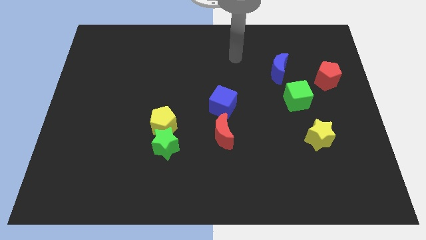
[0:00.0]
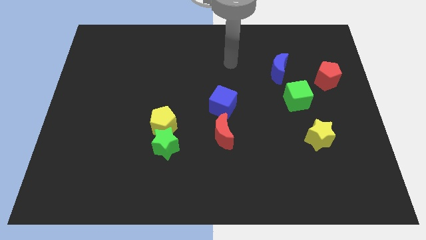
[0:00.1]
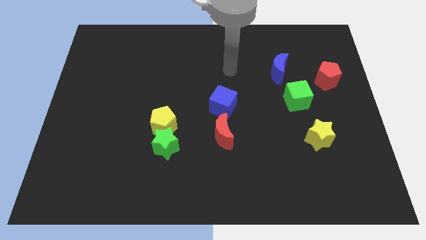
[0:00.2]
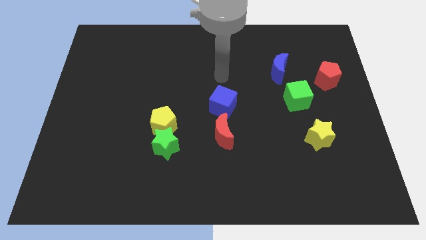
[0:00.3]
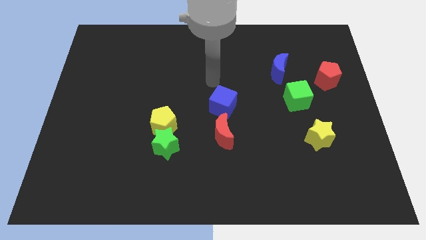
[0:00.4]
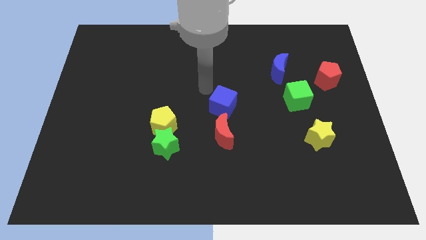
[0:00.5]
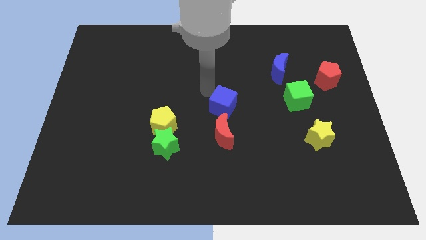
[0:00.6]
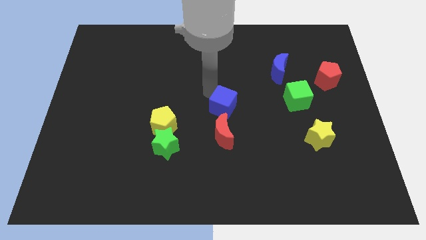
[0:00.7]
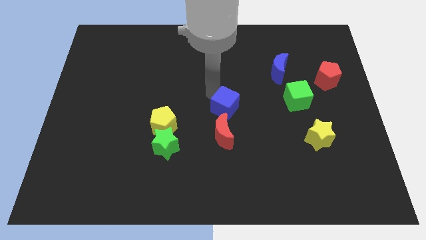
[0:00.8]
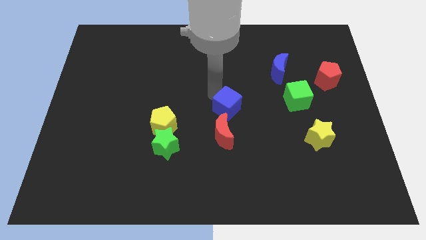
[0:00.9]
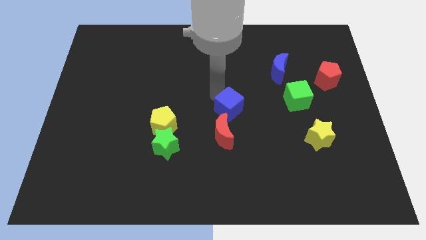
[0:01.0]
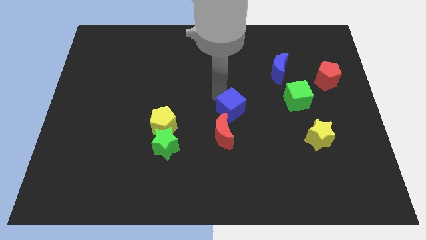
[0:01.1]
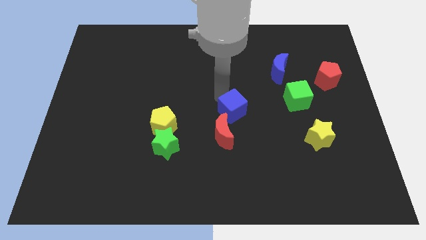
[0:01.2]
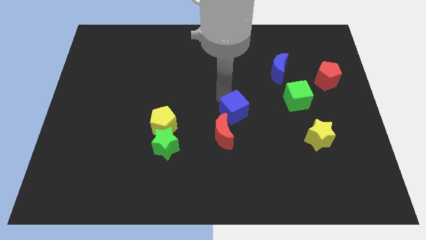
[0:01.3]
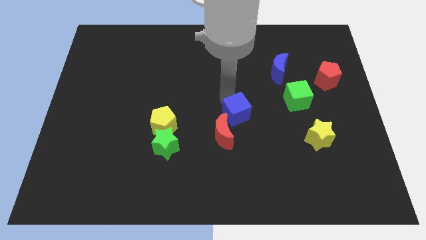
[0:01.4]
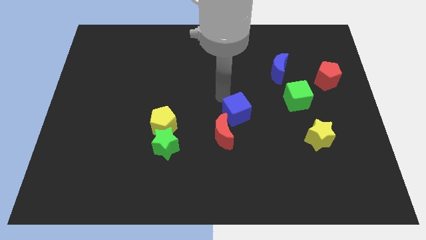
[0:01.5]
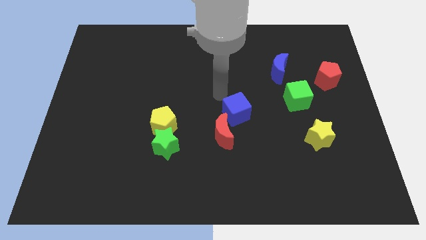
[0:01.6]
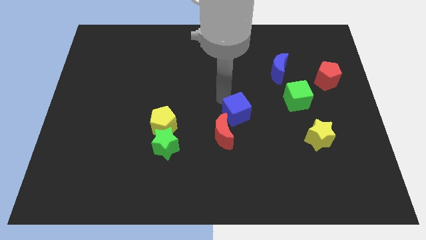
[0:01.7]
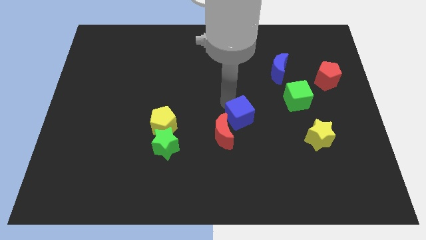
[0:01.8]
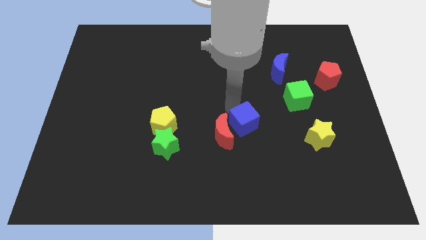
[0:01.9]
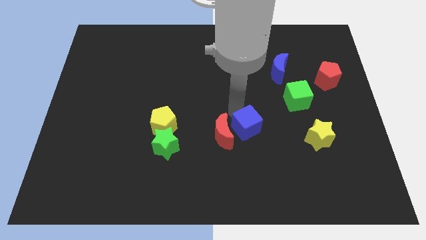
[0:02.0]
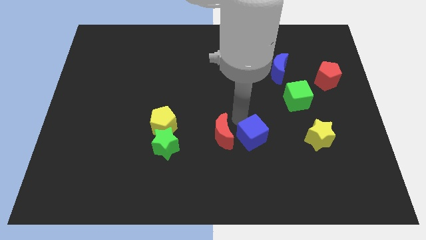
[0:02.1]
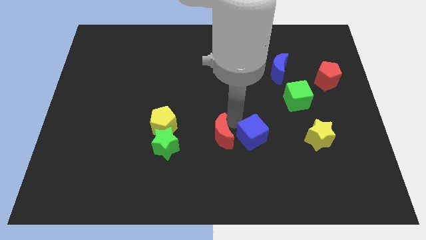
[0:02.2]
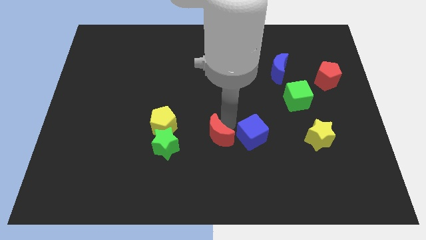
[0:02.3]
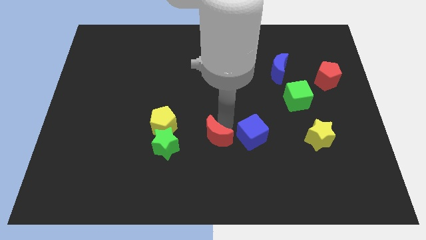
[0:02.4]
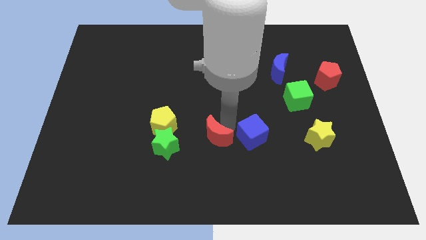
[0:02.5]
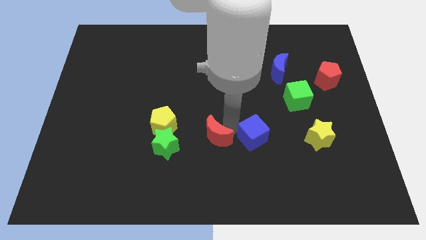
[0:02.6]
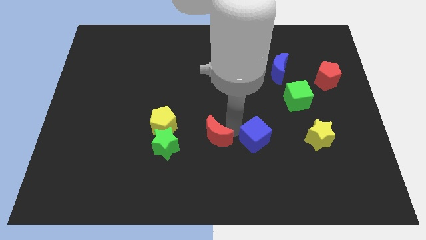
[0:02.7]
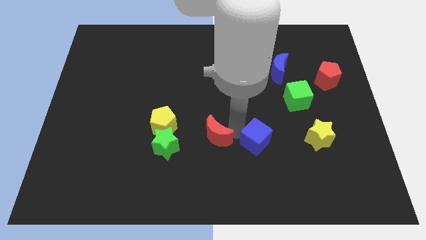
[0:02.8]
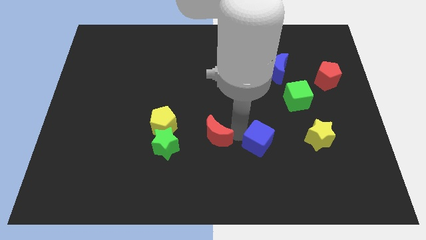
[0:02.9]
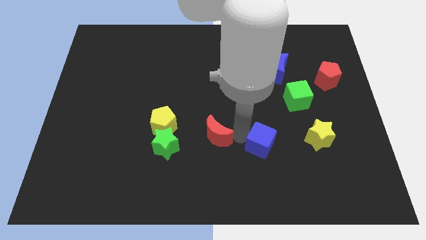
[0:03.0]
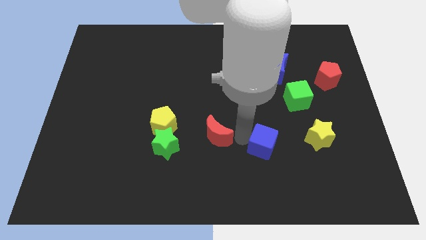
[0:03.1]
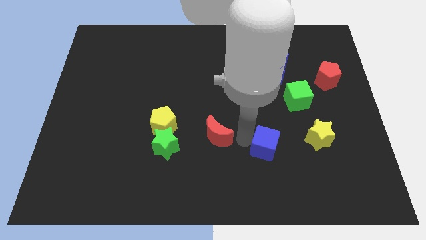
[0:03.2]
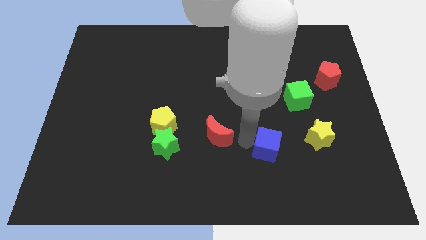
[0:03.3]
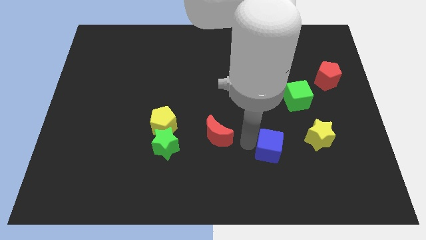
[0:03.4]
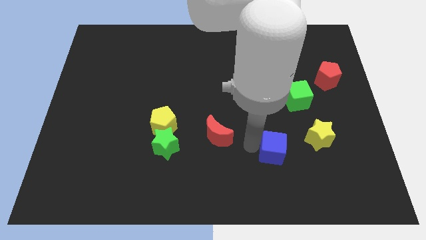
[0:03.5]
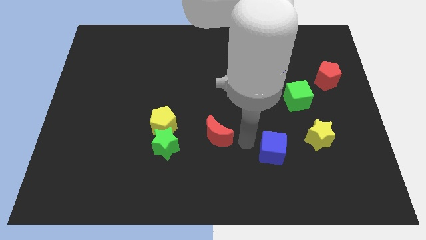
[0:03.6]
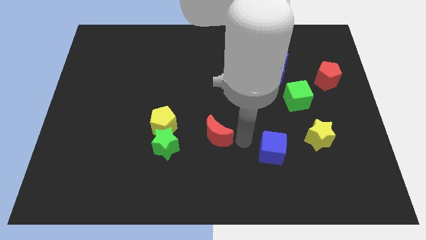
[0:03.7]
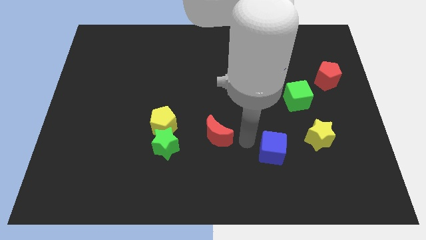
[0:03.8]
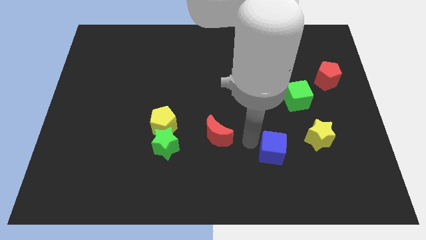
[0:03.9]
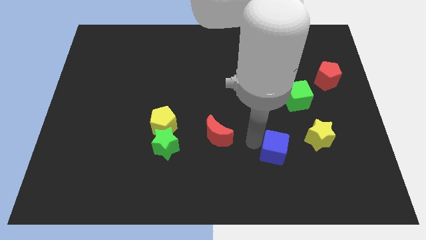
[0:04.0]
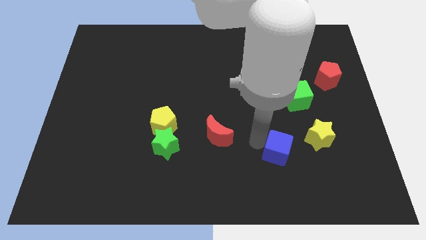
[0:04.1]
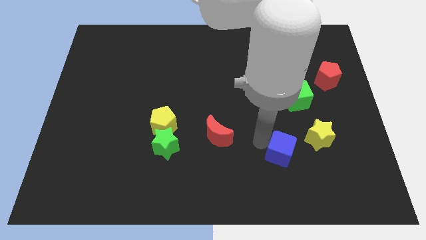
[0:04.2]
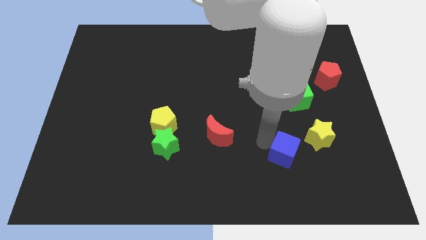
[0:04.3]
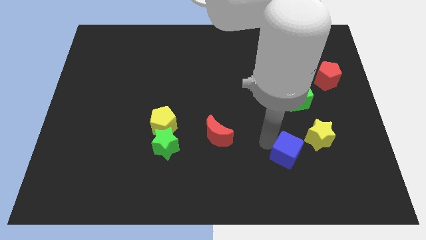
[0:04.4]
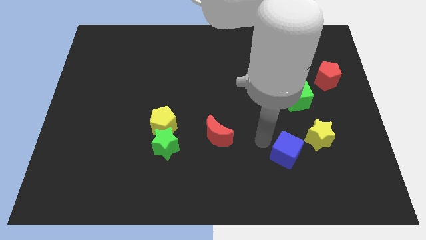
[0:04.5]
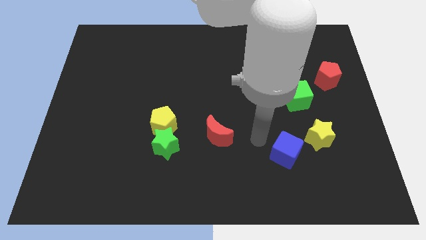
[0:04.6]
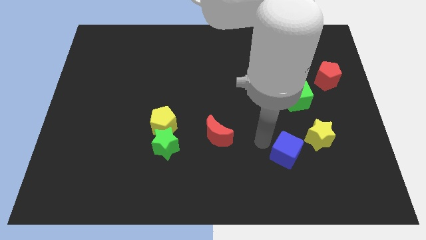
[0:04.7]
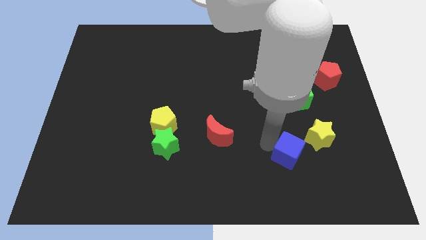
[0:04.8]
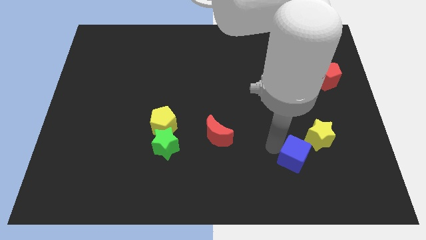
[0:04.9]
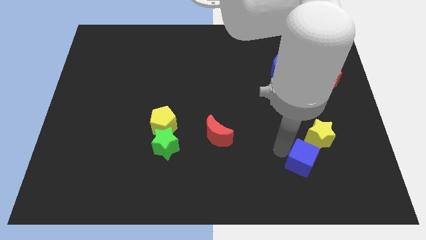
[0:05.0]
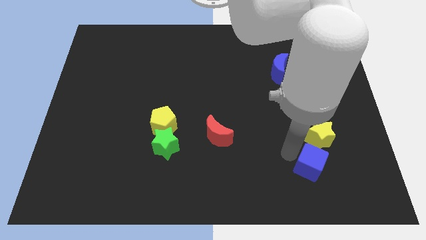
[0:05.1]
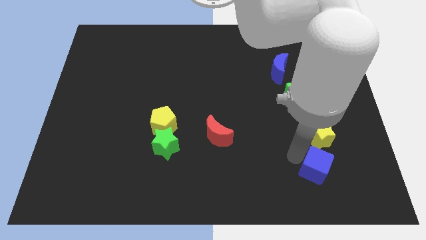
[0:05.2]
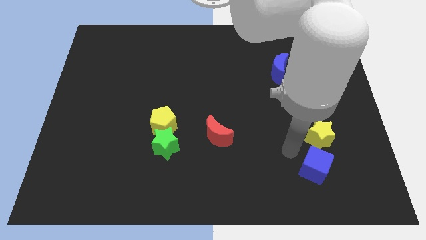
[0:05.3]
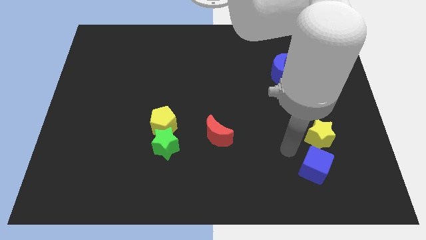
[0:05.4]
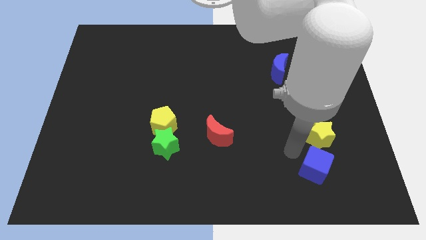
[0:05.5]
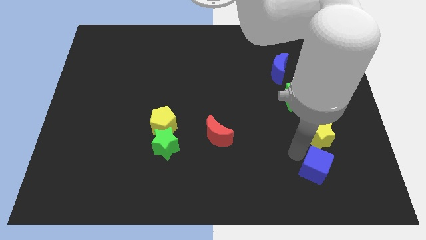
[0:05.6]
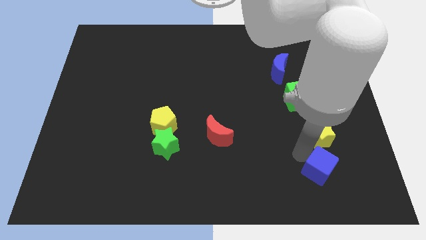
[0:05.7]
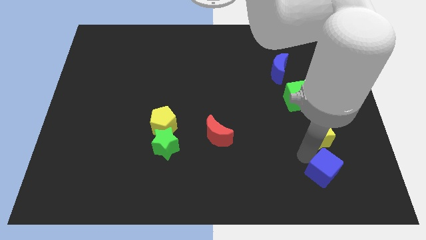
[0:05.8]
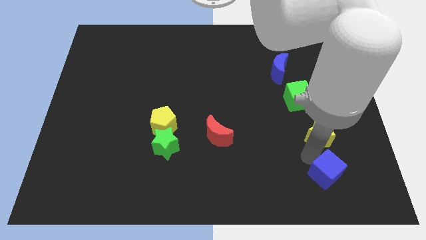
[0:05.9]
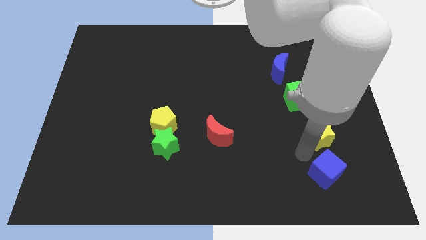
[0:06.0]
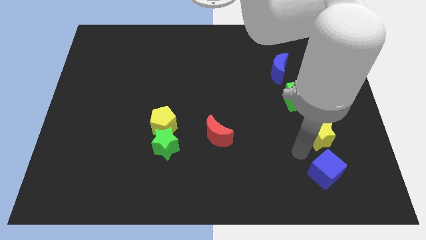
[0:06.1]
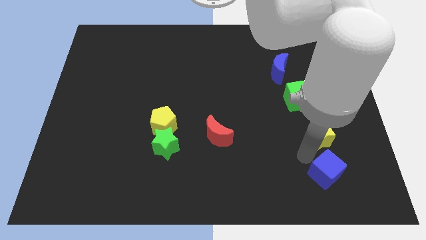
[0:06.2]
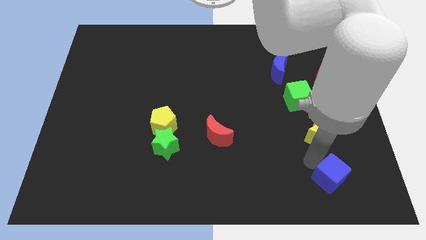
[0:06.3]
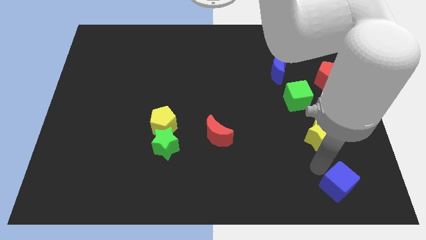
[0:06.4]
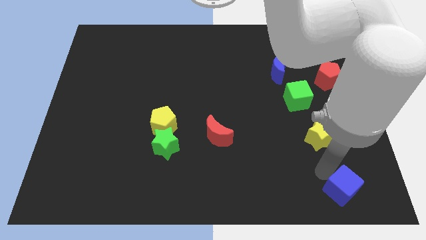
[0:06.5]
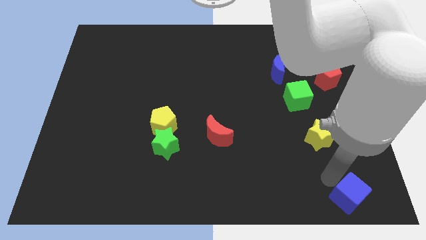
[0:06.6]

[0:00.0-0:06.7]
move the blue cube to the bottom right corner

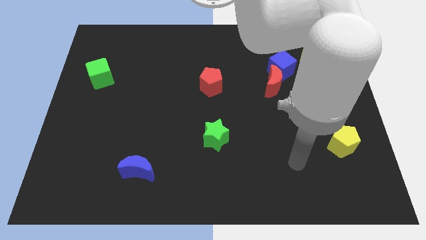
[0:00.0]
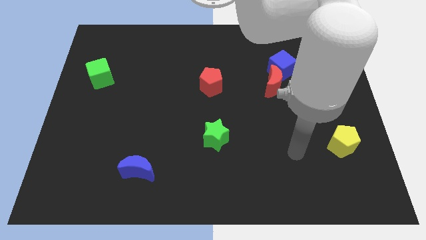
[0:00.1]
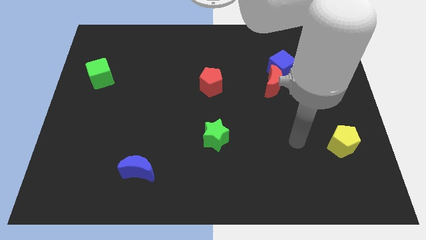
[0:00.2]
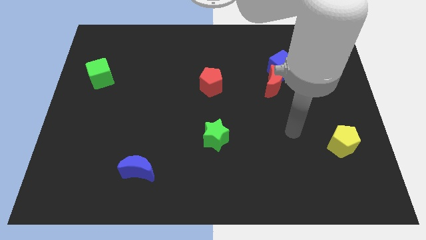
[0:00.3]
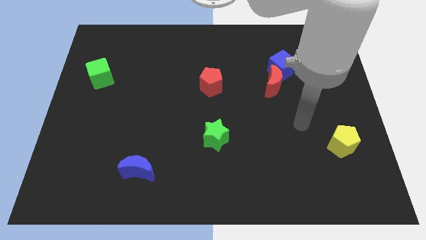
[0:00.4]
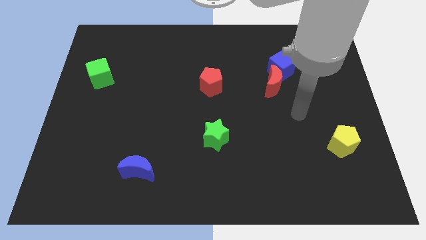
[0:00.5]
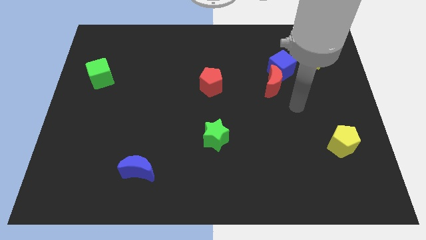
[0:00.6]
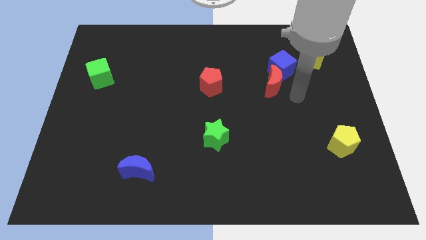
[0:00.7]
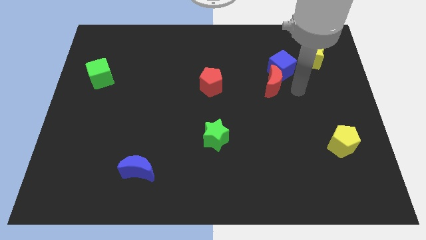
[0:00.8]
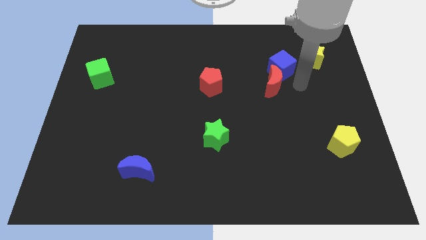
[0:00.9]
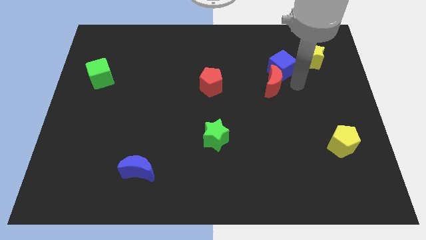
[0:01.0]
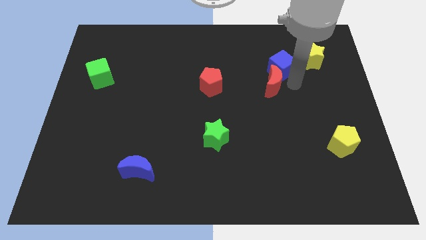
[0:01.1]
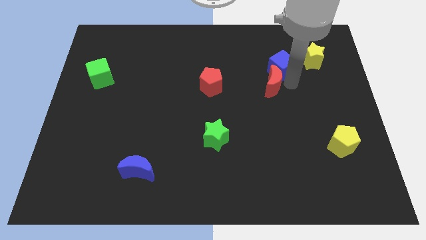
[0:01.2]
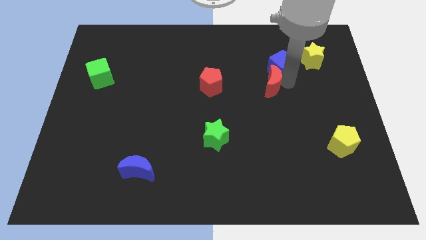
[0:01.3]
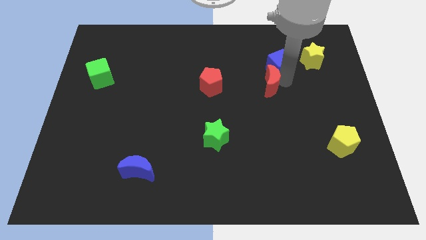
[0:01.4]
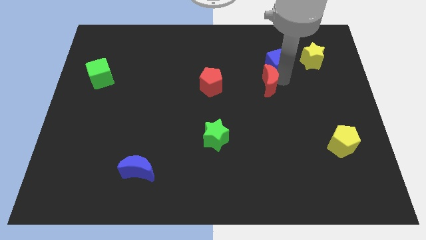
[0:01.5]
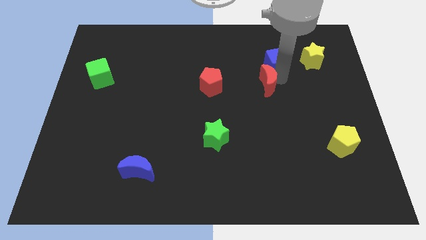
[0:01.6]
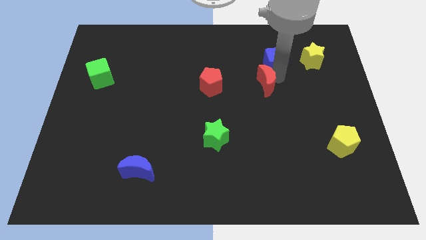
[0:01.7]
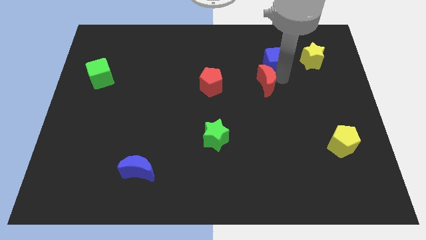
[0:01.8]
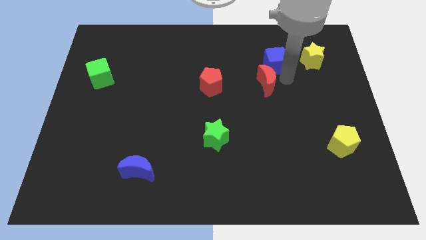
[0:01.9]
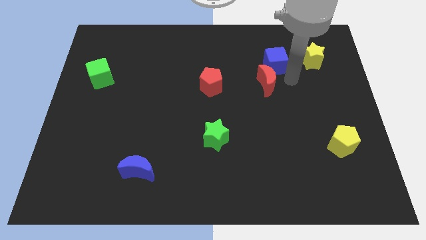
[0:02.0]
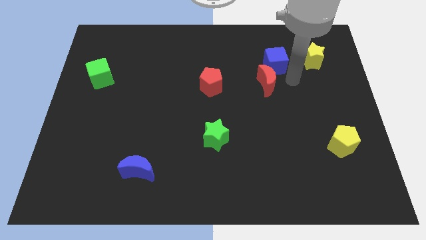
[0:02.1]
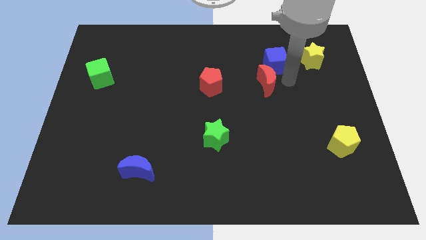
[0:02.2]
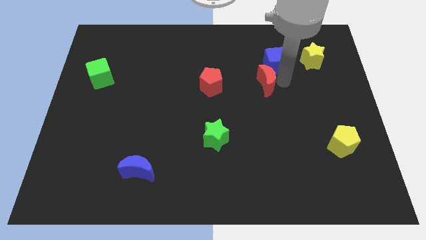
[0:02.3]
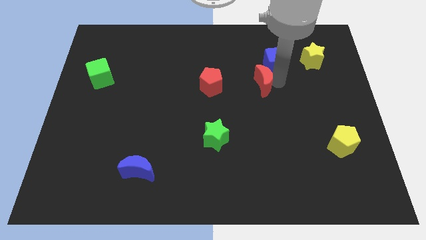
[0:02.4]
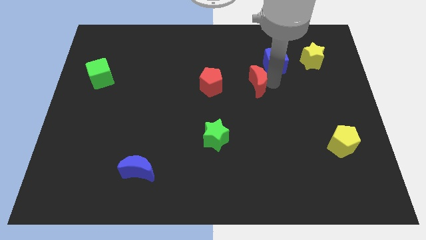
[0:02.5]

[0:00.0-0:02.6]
slide the red moon to the middle of the board
